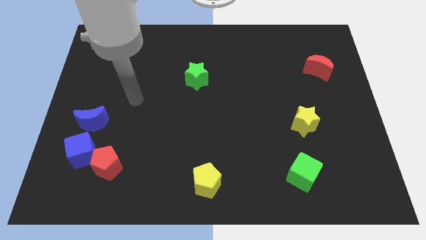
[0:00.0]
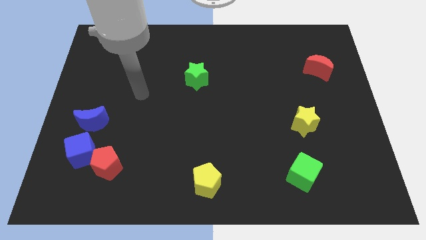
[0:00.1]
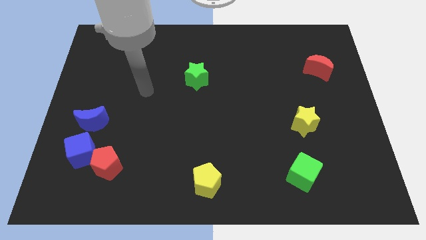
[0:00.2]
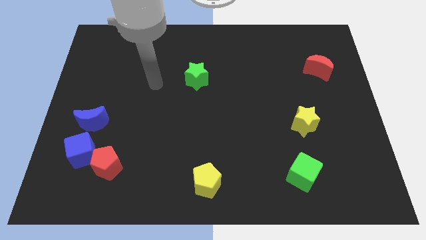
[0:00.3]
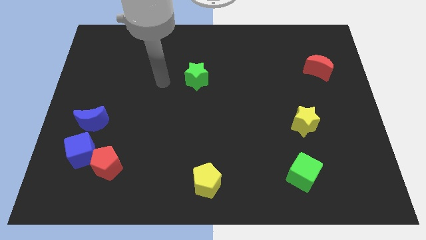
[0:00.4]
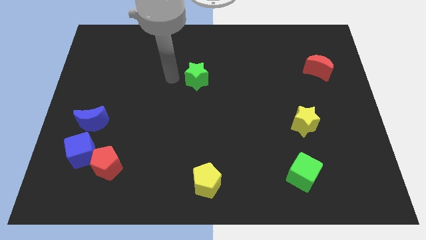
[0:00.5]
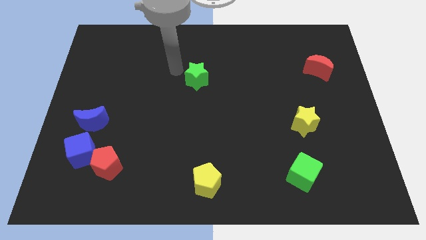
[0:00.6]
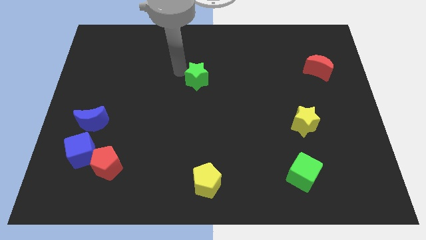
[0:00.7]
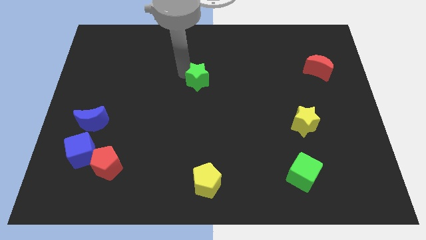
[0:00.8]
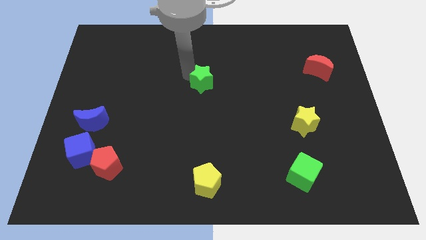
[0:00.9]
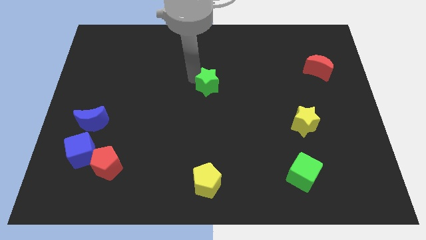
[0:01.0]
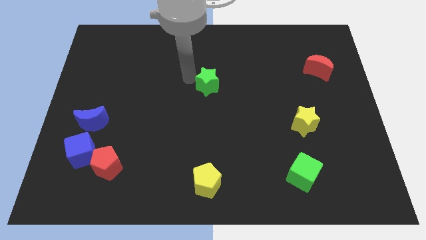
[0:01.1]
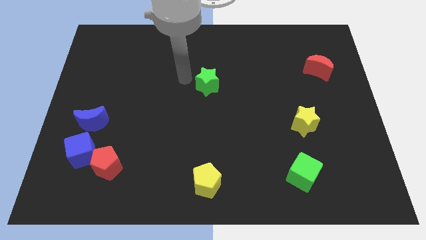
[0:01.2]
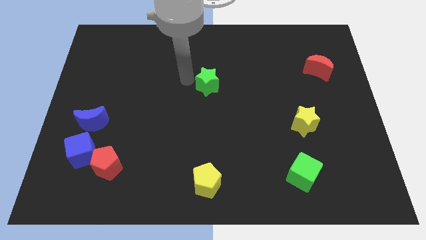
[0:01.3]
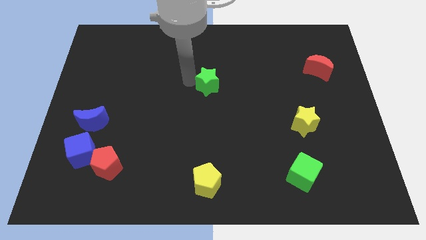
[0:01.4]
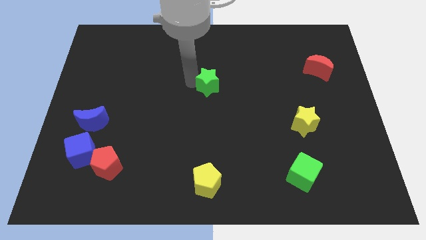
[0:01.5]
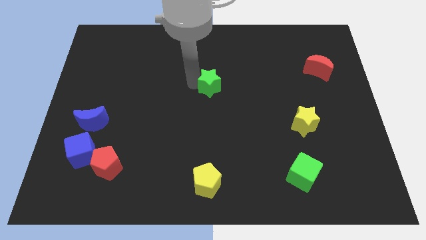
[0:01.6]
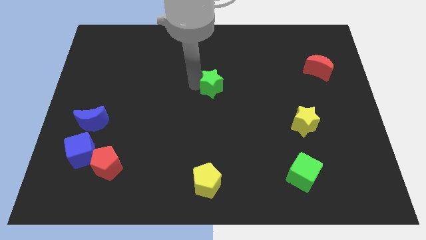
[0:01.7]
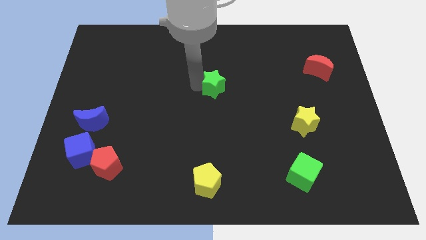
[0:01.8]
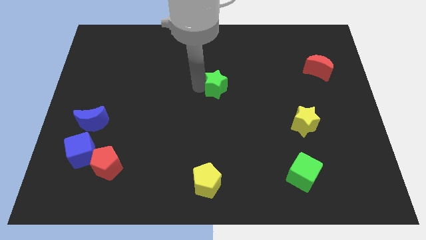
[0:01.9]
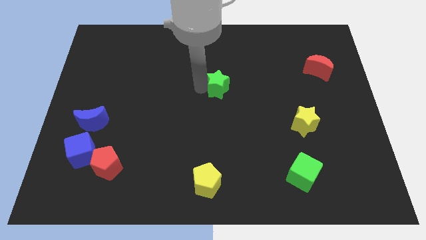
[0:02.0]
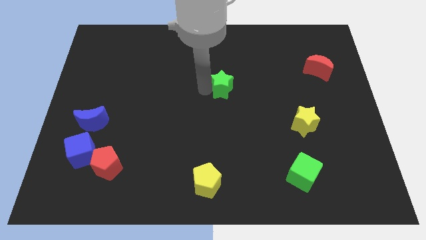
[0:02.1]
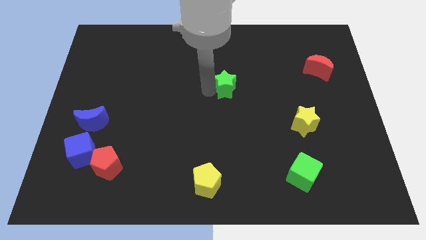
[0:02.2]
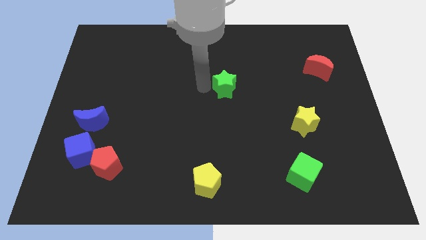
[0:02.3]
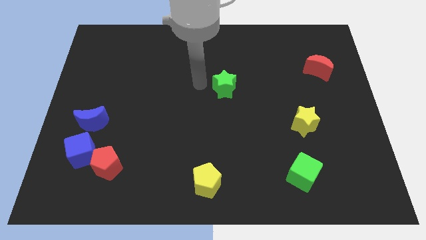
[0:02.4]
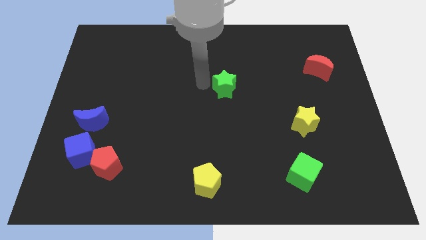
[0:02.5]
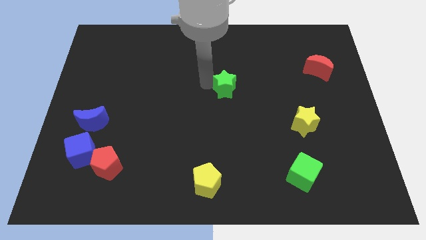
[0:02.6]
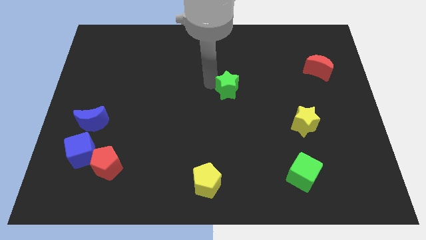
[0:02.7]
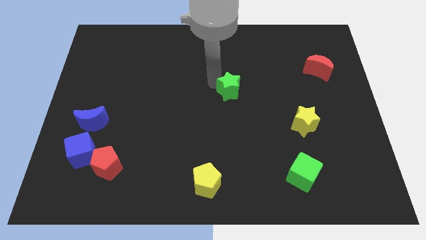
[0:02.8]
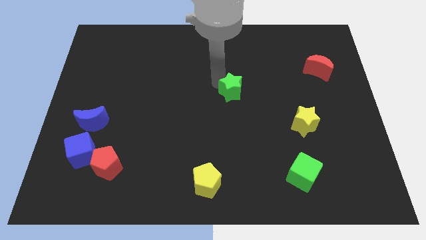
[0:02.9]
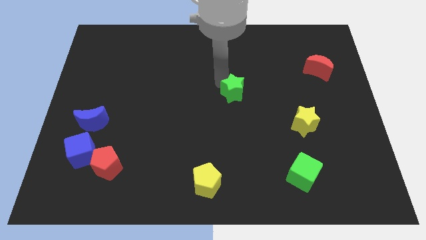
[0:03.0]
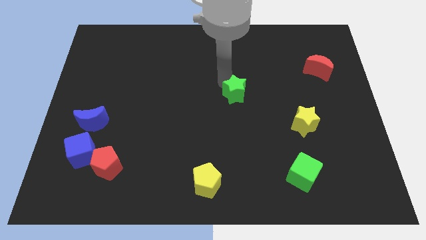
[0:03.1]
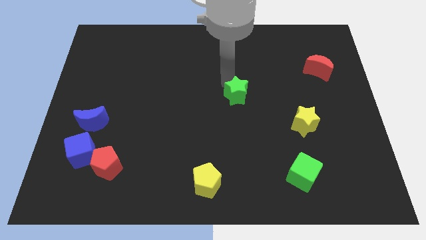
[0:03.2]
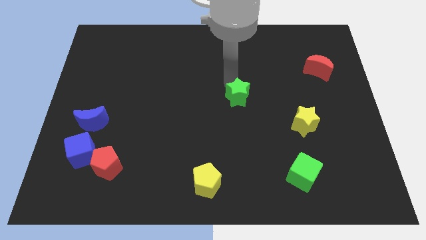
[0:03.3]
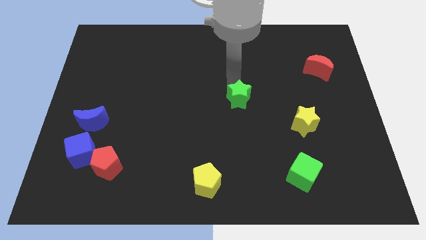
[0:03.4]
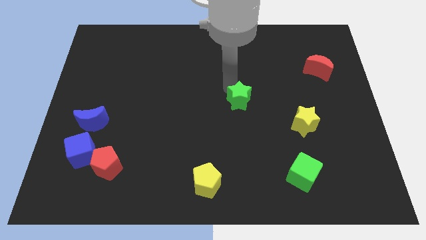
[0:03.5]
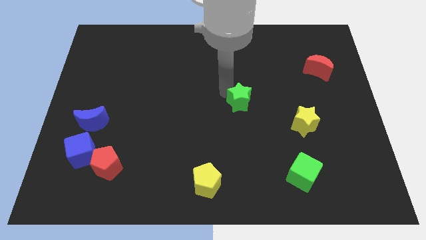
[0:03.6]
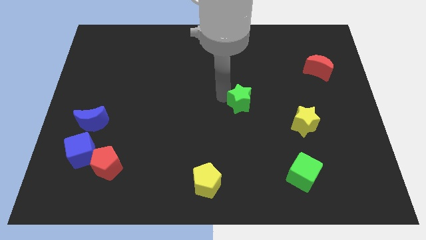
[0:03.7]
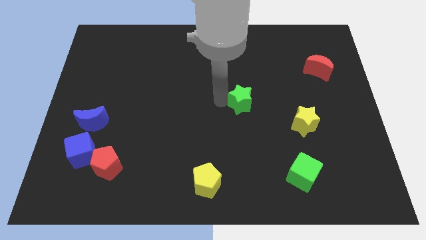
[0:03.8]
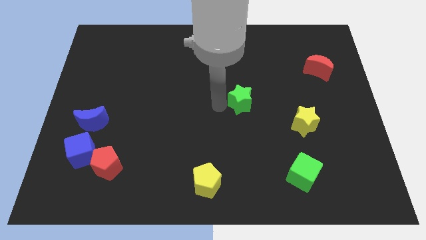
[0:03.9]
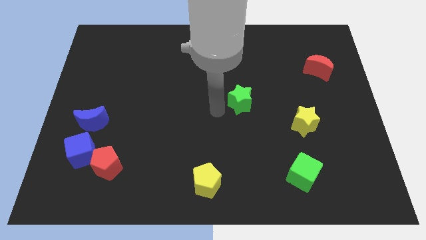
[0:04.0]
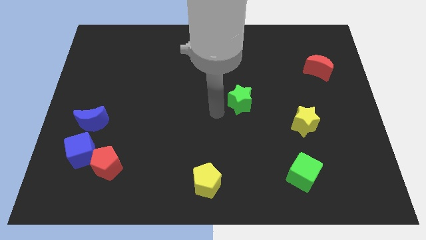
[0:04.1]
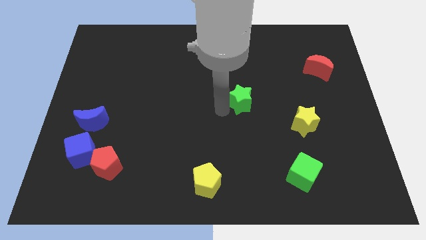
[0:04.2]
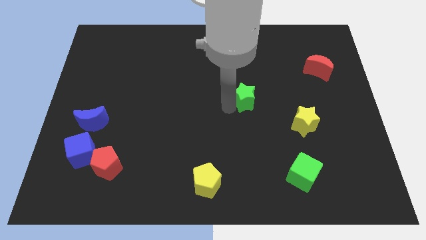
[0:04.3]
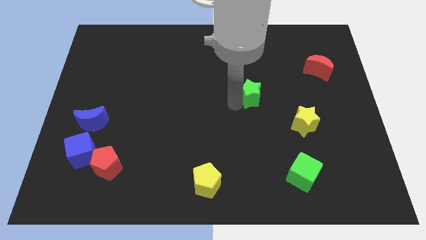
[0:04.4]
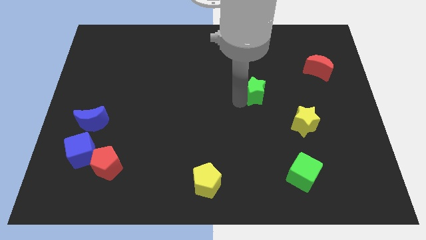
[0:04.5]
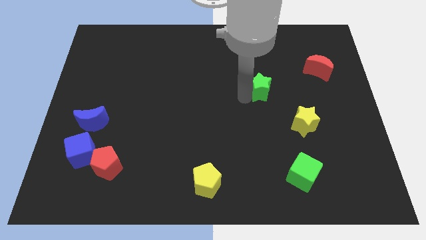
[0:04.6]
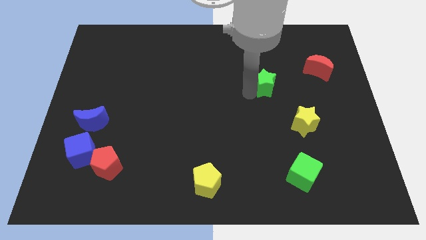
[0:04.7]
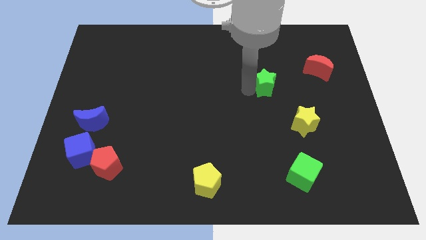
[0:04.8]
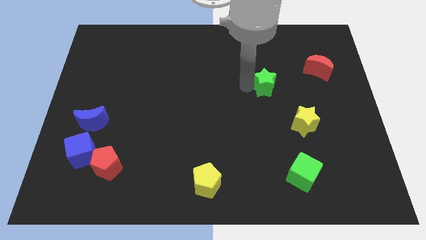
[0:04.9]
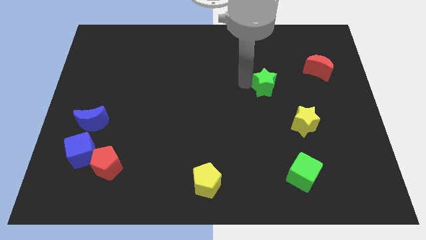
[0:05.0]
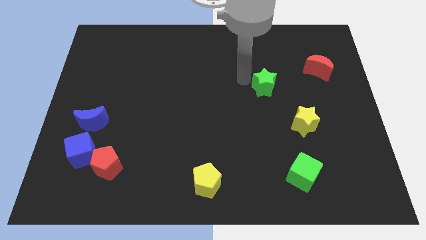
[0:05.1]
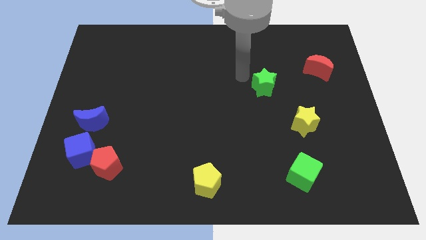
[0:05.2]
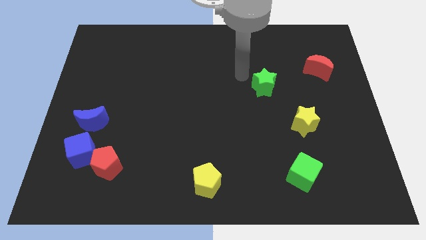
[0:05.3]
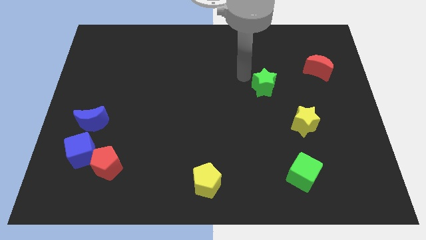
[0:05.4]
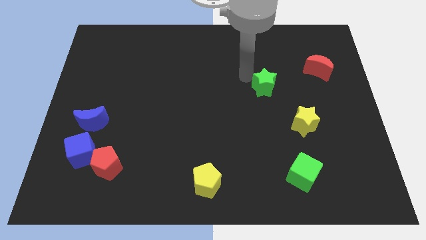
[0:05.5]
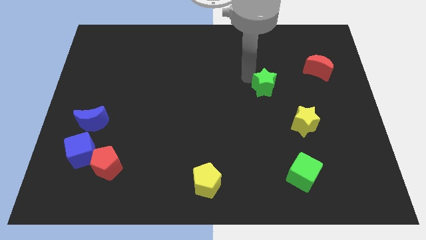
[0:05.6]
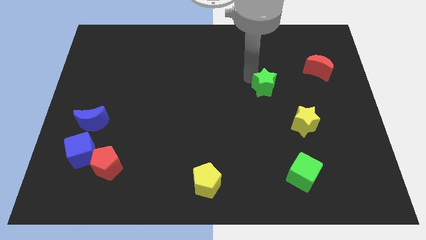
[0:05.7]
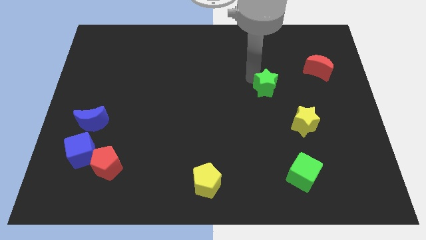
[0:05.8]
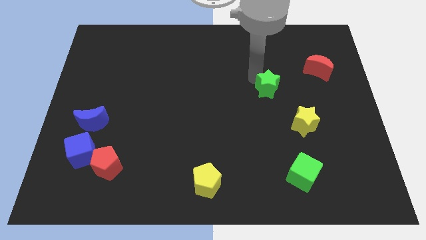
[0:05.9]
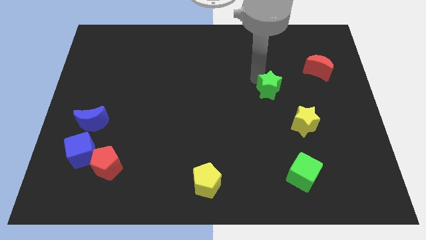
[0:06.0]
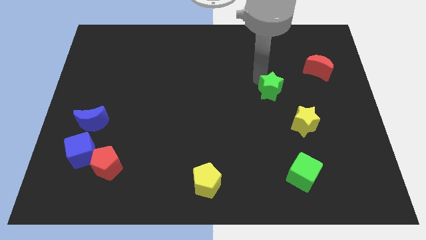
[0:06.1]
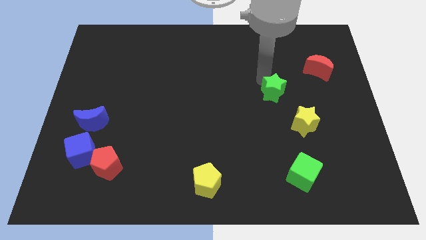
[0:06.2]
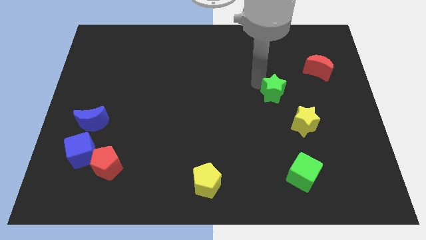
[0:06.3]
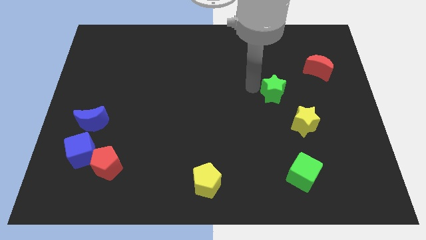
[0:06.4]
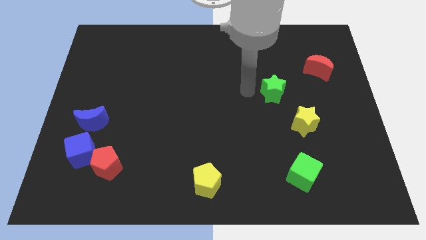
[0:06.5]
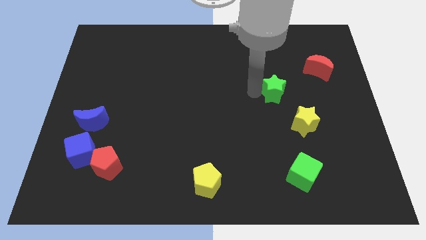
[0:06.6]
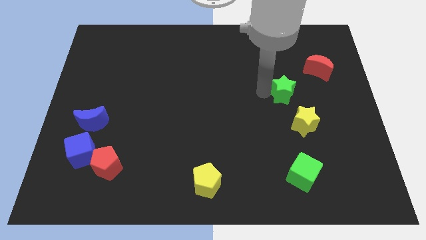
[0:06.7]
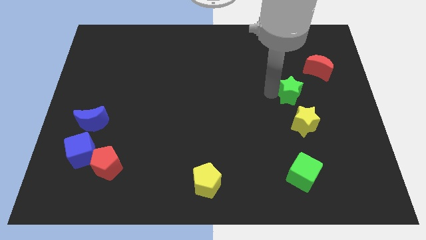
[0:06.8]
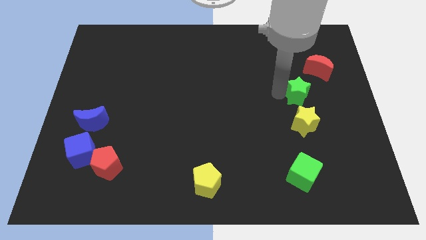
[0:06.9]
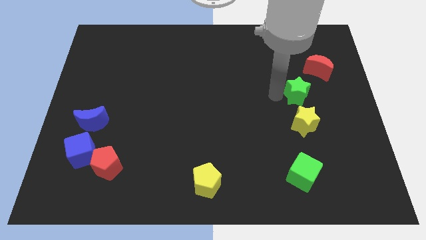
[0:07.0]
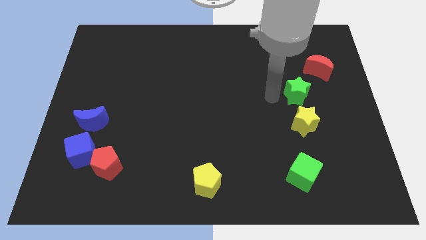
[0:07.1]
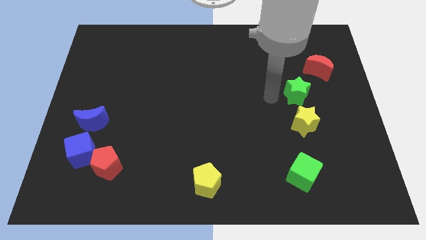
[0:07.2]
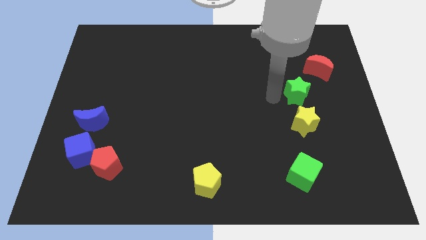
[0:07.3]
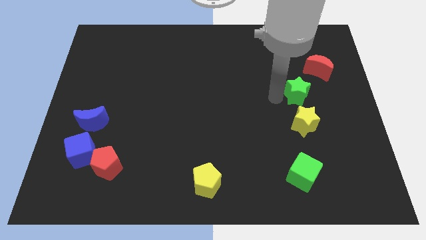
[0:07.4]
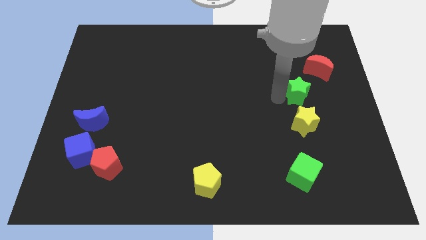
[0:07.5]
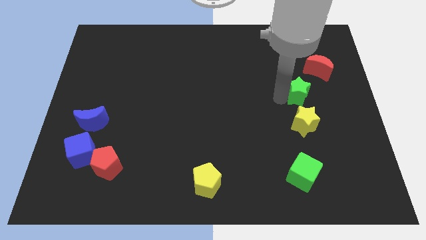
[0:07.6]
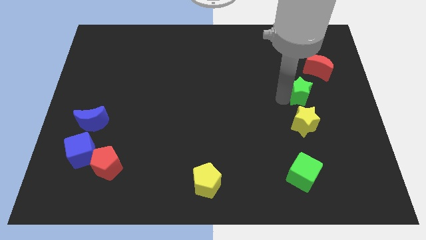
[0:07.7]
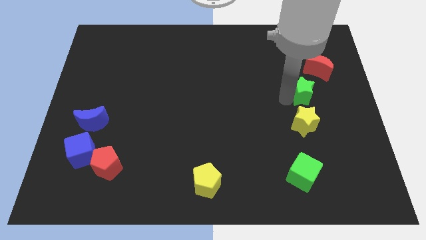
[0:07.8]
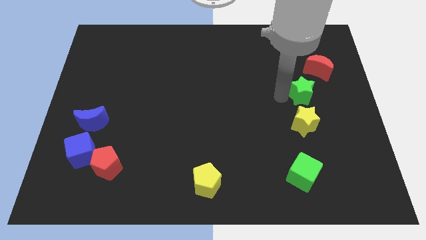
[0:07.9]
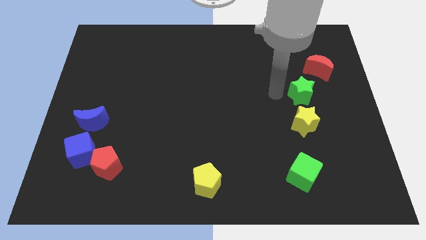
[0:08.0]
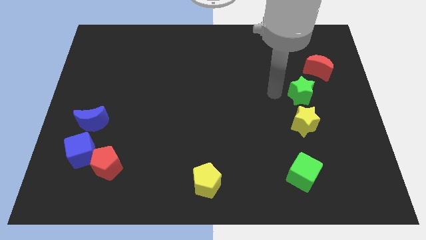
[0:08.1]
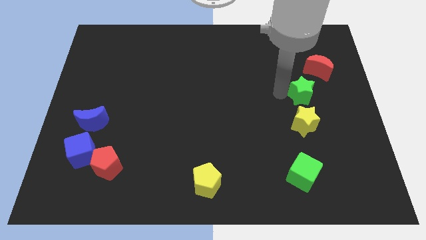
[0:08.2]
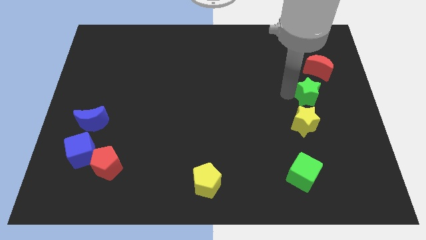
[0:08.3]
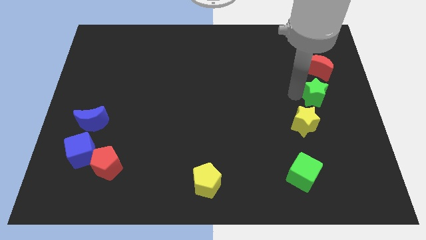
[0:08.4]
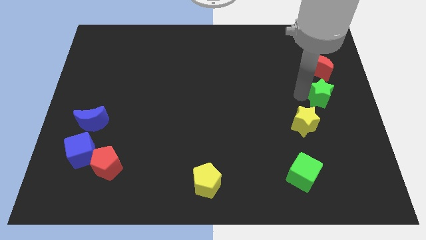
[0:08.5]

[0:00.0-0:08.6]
slide the green star to the center right
